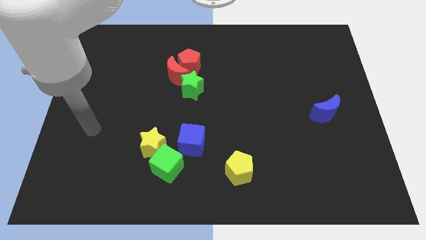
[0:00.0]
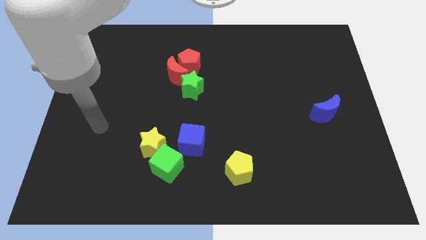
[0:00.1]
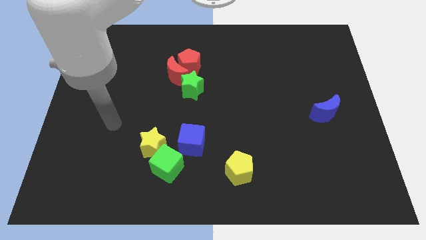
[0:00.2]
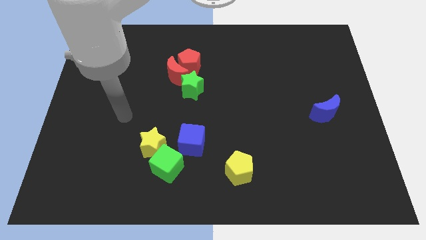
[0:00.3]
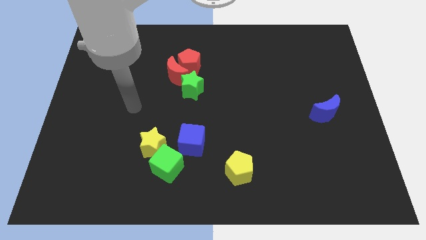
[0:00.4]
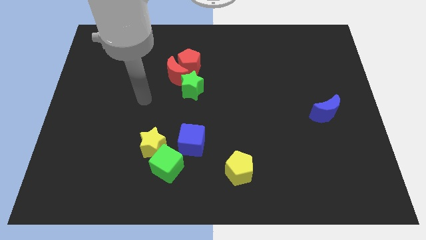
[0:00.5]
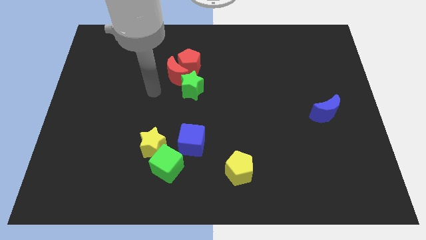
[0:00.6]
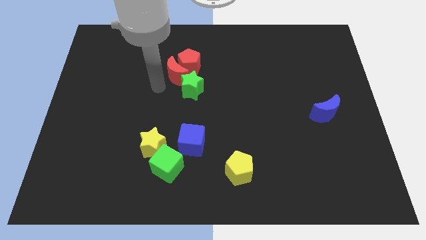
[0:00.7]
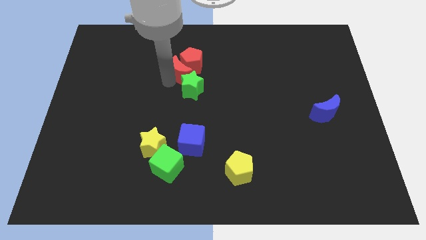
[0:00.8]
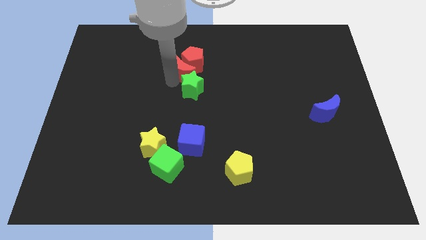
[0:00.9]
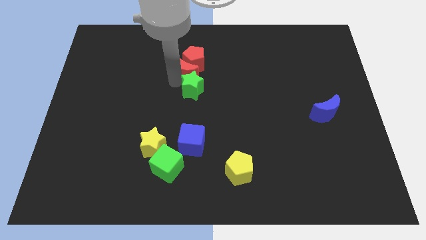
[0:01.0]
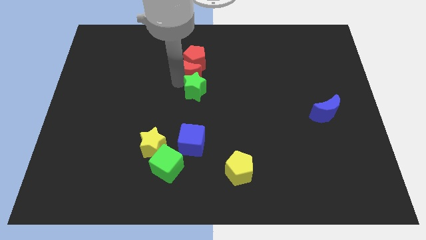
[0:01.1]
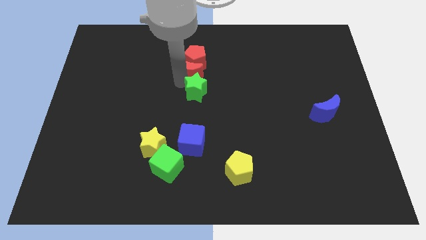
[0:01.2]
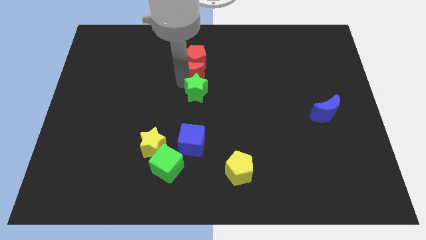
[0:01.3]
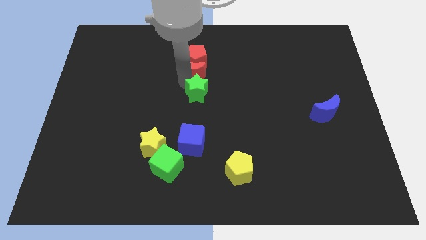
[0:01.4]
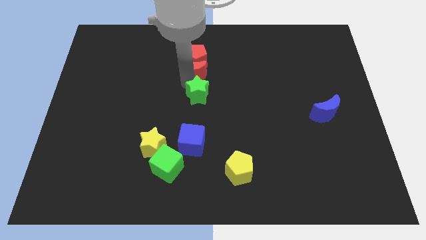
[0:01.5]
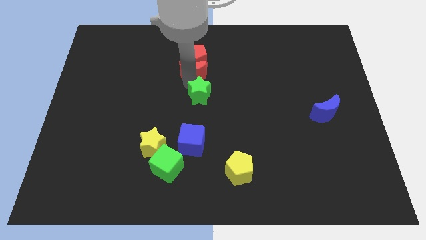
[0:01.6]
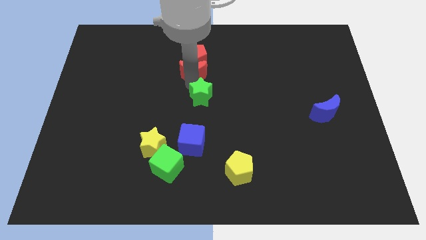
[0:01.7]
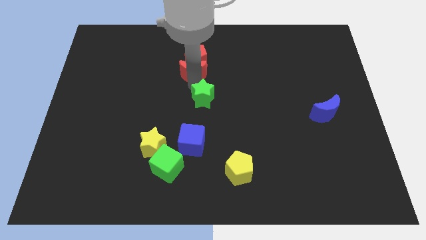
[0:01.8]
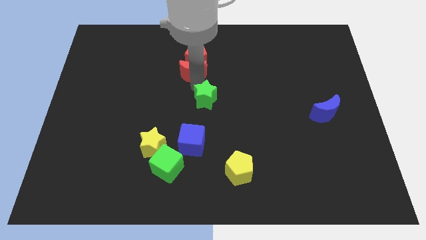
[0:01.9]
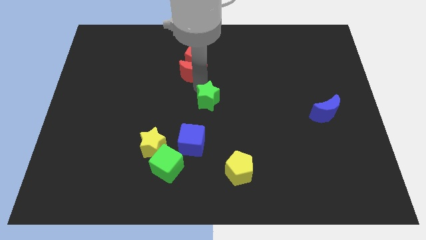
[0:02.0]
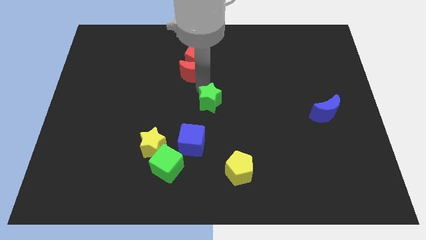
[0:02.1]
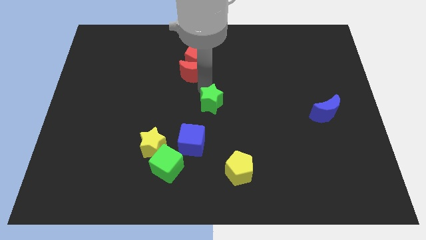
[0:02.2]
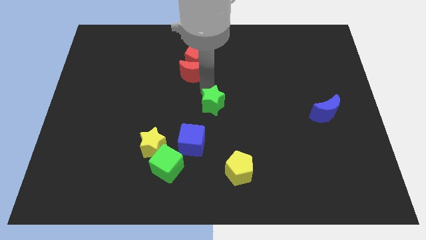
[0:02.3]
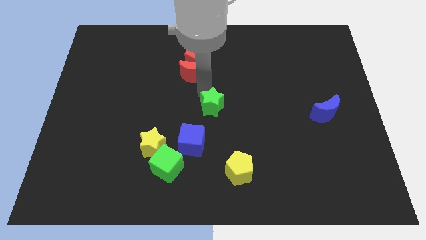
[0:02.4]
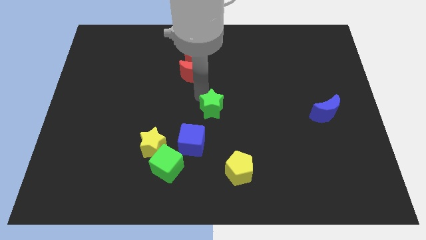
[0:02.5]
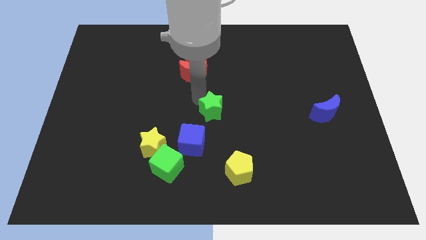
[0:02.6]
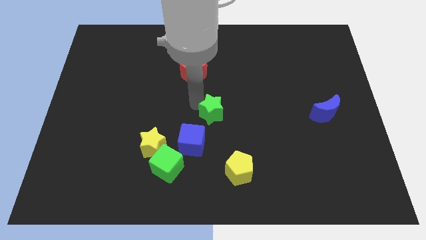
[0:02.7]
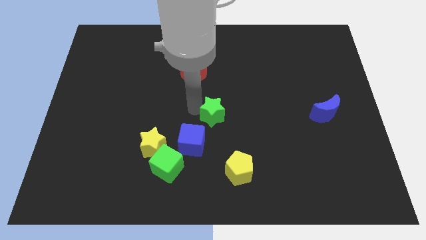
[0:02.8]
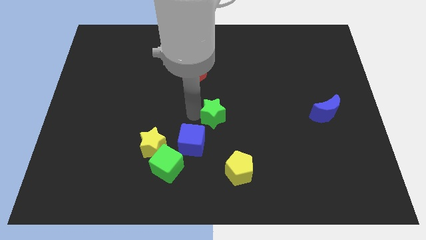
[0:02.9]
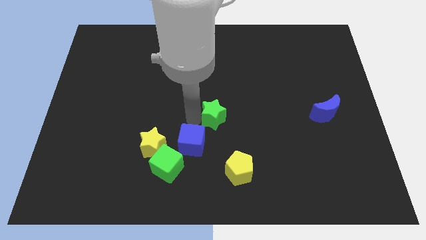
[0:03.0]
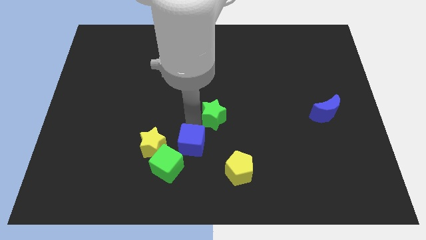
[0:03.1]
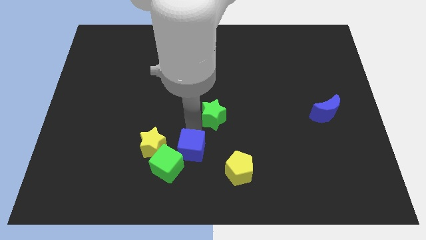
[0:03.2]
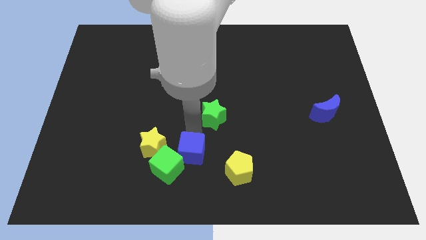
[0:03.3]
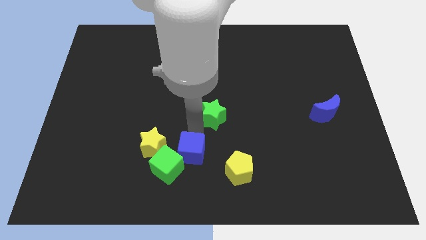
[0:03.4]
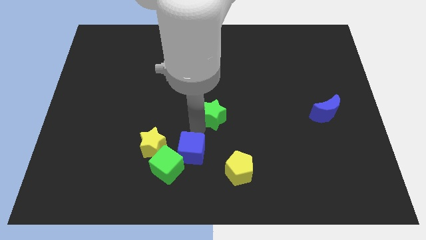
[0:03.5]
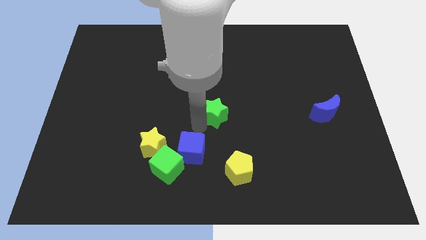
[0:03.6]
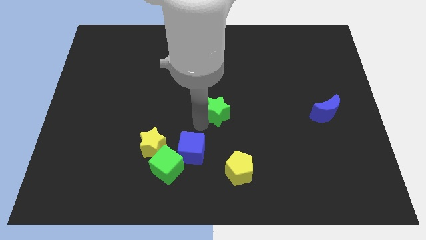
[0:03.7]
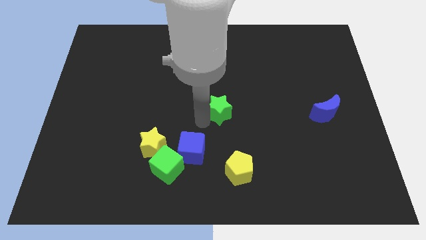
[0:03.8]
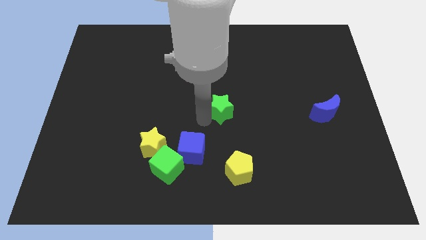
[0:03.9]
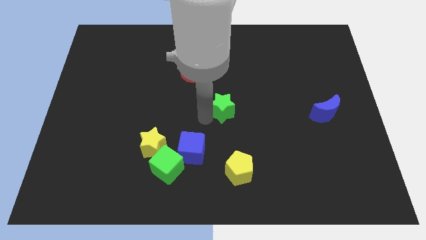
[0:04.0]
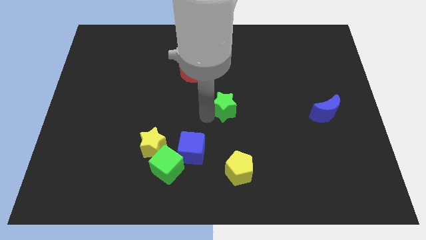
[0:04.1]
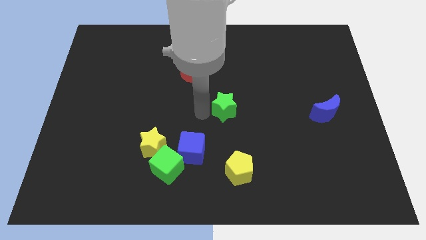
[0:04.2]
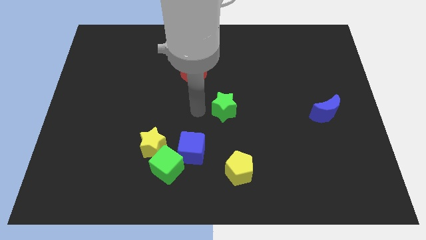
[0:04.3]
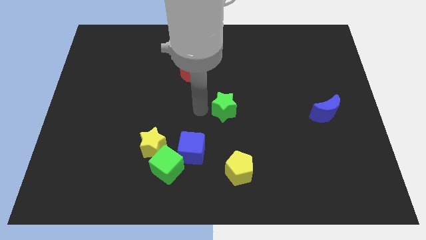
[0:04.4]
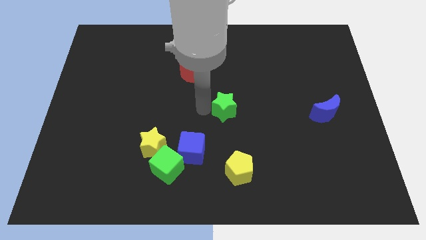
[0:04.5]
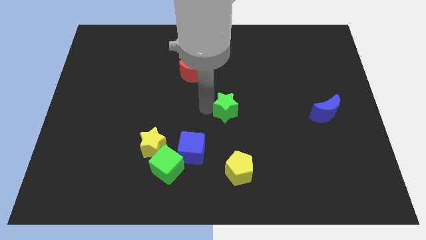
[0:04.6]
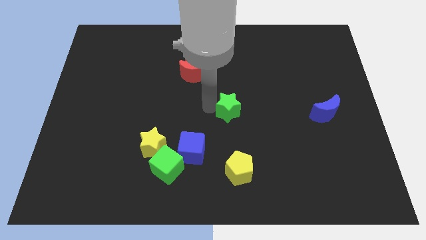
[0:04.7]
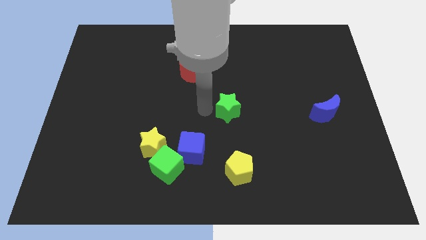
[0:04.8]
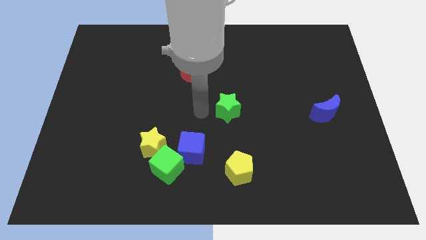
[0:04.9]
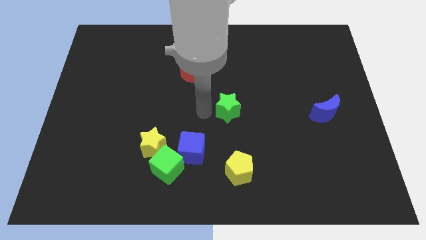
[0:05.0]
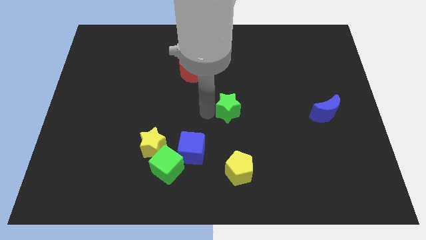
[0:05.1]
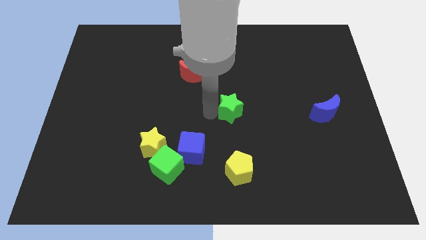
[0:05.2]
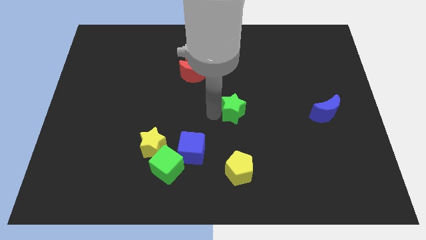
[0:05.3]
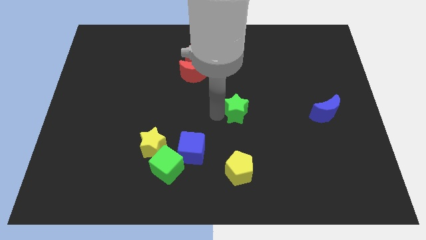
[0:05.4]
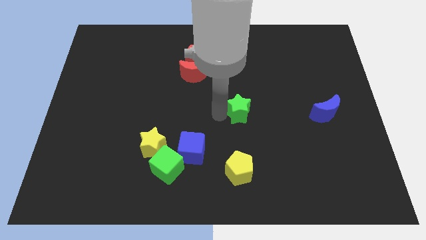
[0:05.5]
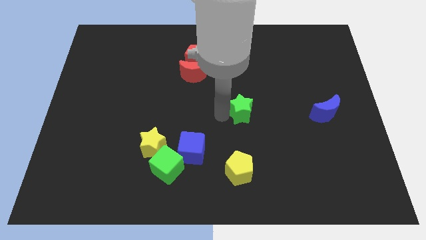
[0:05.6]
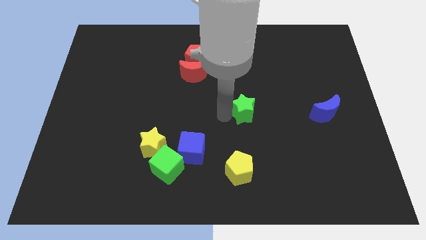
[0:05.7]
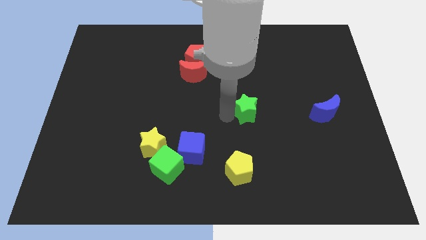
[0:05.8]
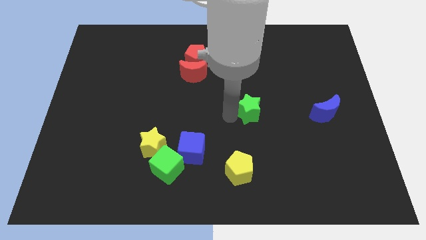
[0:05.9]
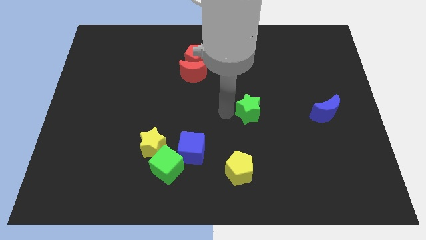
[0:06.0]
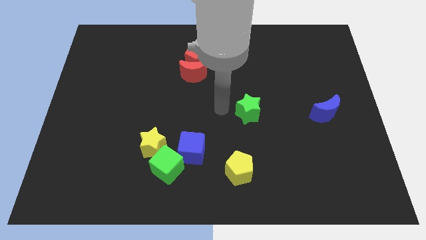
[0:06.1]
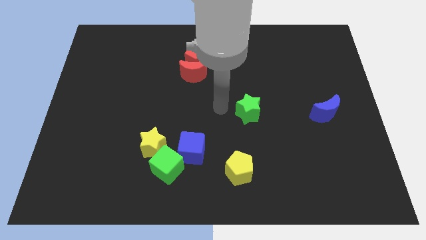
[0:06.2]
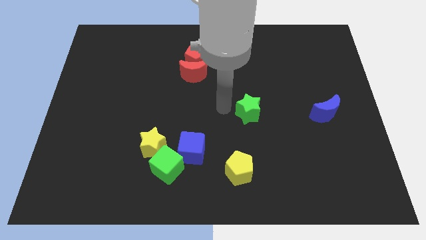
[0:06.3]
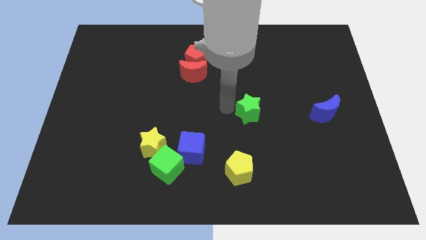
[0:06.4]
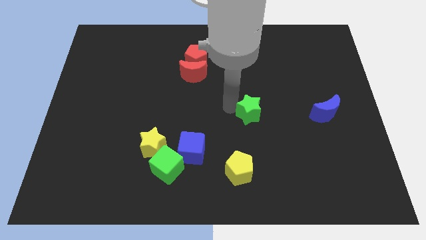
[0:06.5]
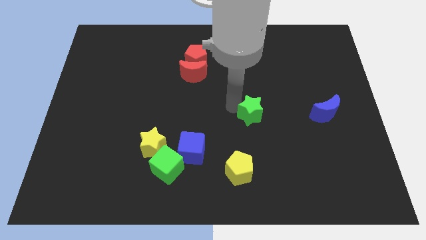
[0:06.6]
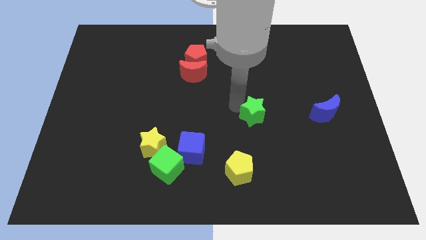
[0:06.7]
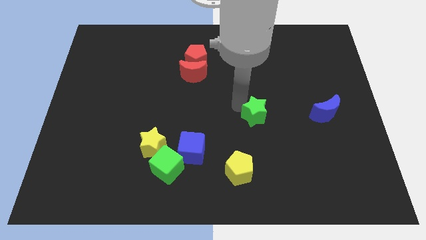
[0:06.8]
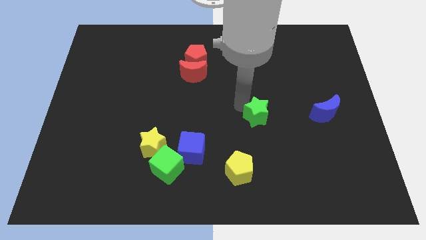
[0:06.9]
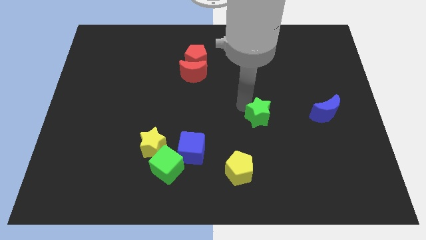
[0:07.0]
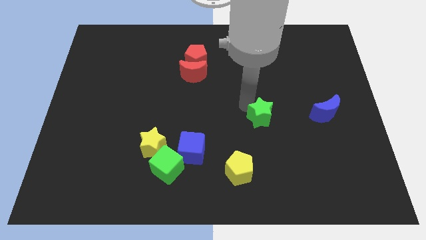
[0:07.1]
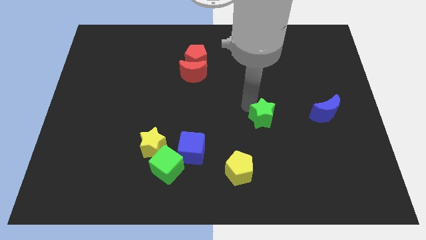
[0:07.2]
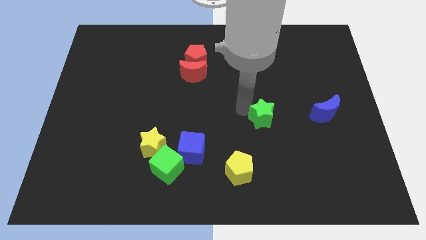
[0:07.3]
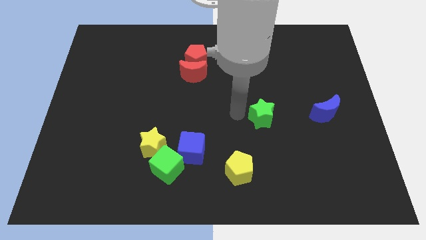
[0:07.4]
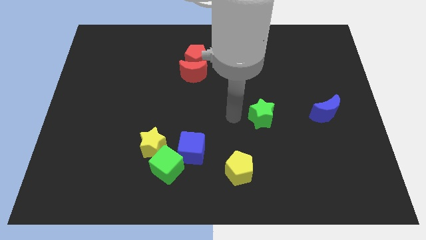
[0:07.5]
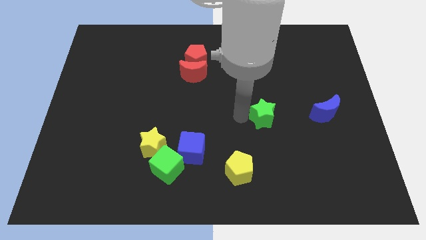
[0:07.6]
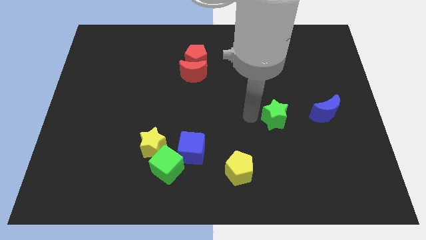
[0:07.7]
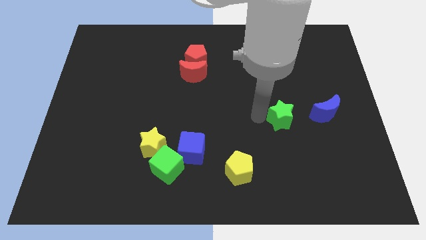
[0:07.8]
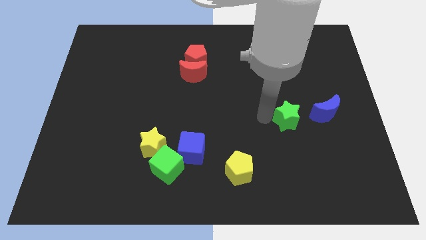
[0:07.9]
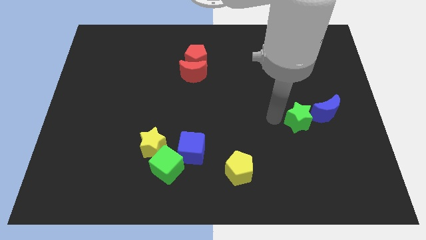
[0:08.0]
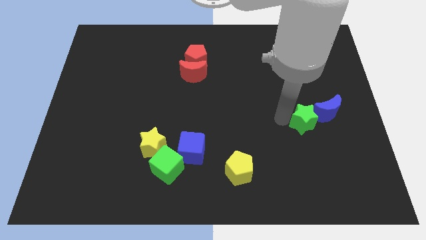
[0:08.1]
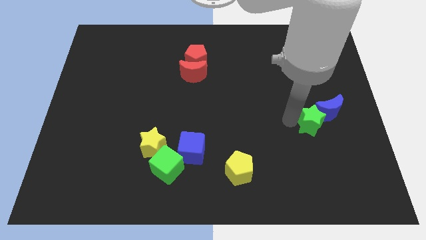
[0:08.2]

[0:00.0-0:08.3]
put the green star close to the blue moon
